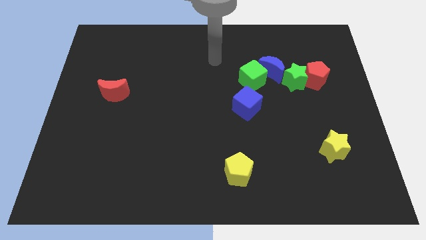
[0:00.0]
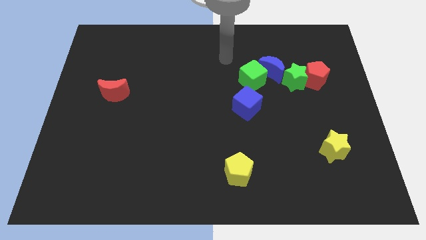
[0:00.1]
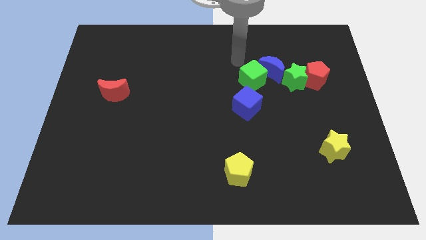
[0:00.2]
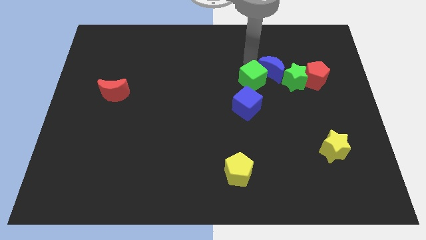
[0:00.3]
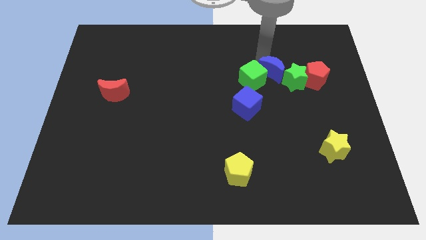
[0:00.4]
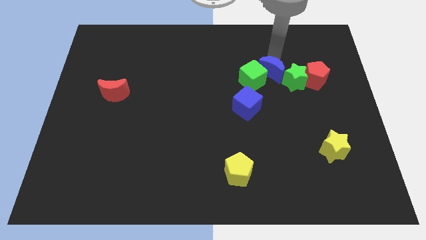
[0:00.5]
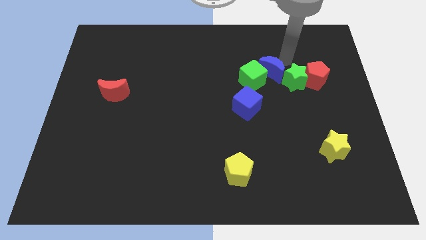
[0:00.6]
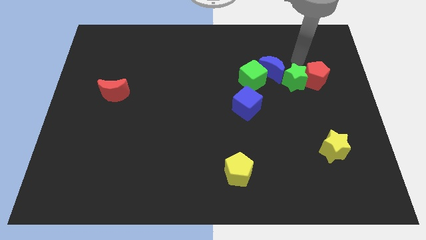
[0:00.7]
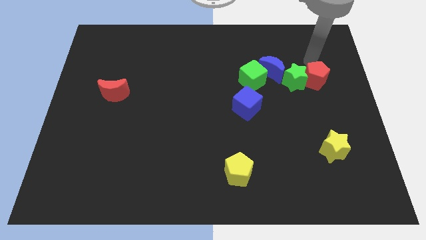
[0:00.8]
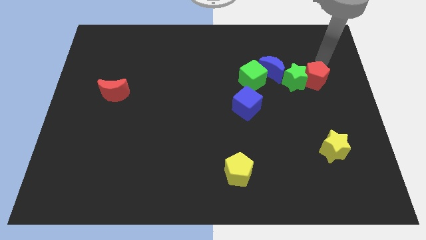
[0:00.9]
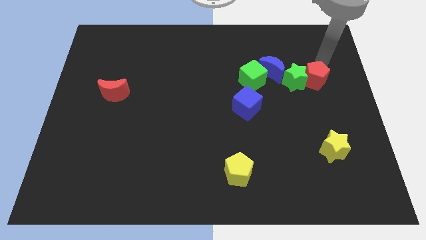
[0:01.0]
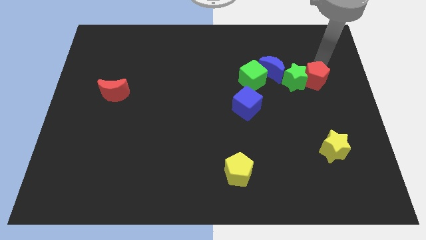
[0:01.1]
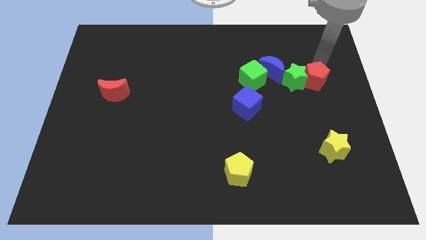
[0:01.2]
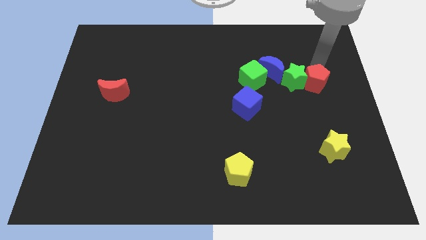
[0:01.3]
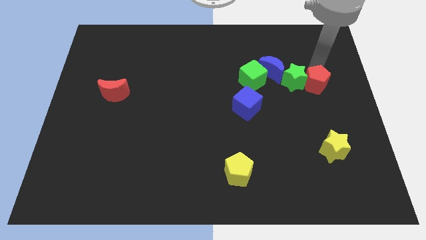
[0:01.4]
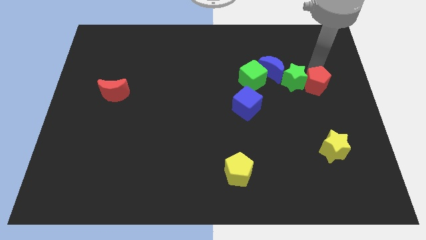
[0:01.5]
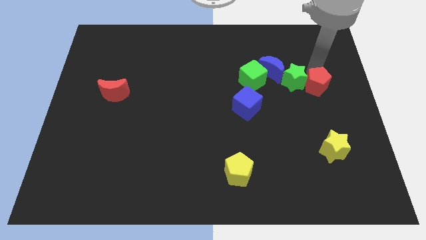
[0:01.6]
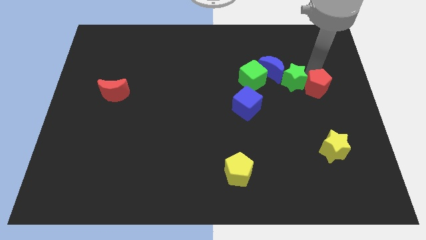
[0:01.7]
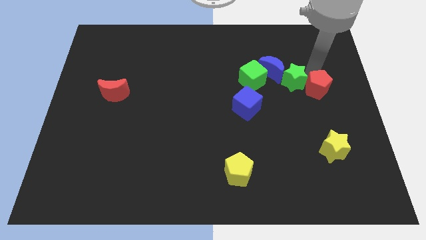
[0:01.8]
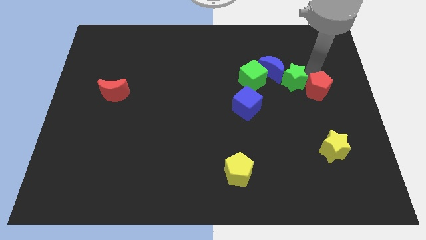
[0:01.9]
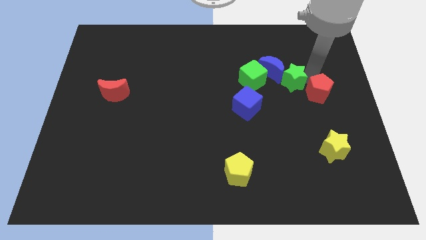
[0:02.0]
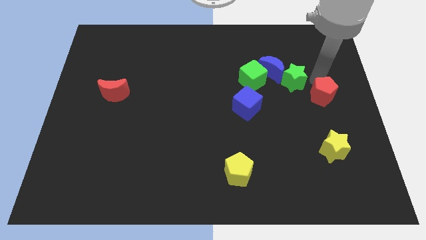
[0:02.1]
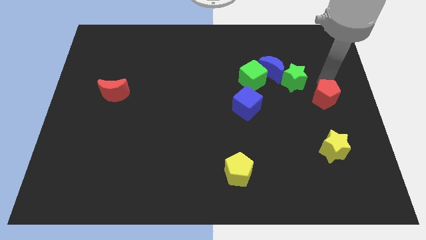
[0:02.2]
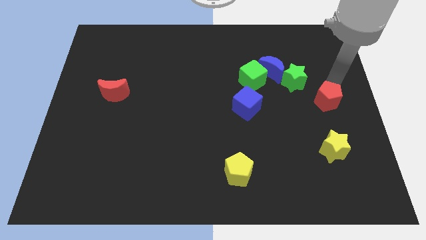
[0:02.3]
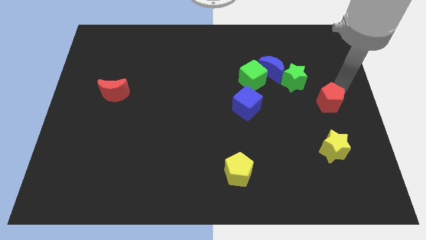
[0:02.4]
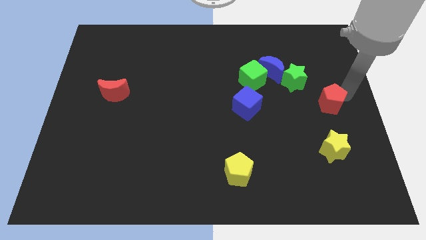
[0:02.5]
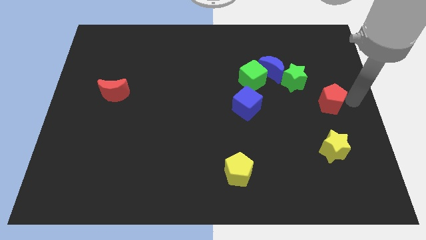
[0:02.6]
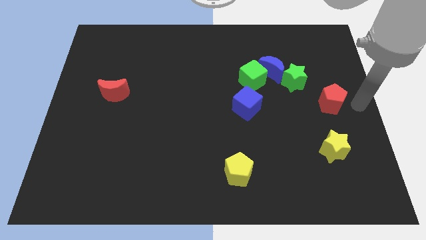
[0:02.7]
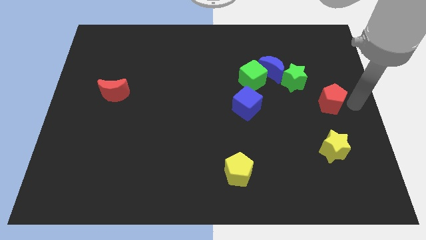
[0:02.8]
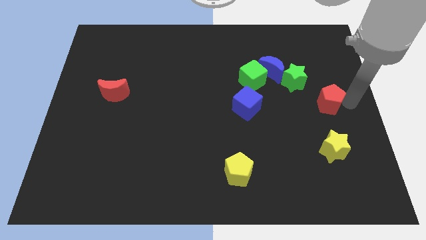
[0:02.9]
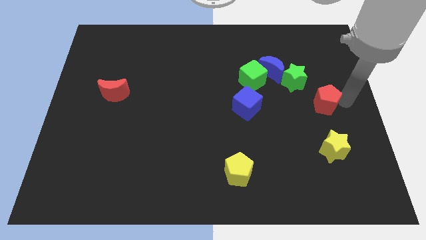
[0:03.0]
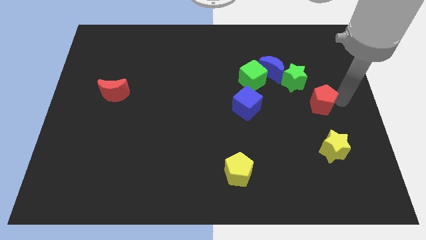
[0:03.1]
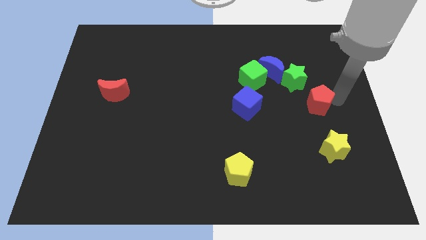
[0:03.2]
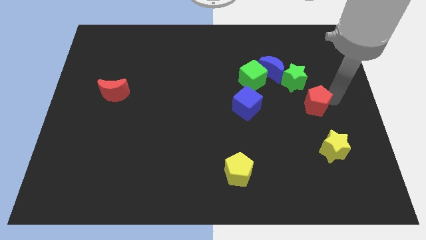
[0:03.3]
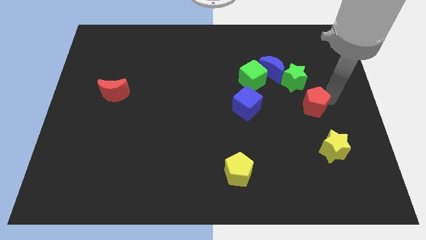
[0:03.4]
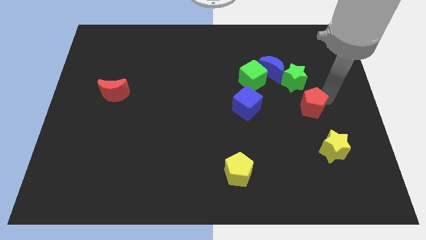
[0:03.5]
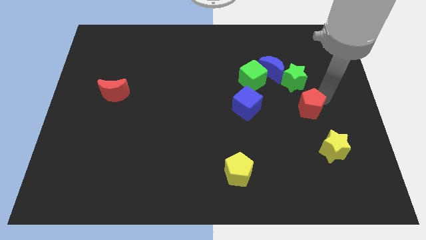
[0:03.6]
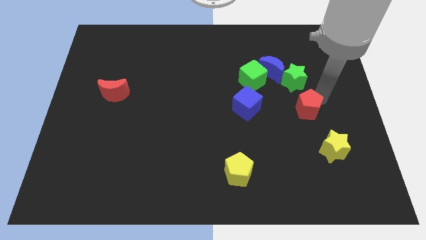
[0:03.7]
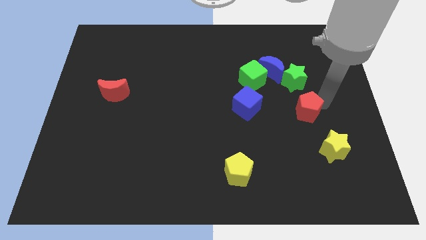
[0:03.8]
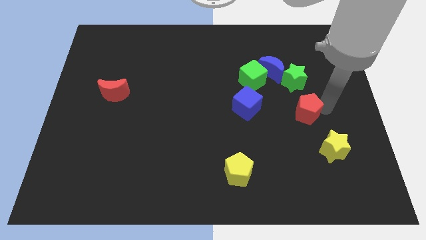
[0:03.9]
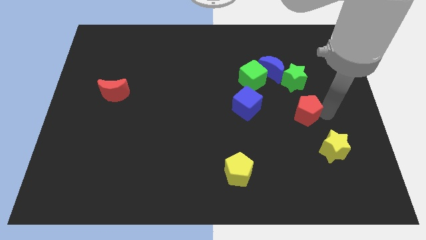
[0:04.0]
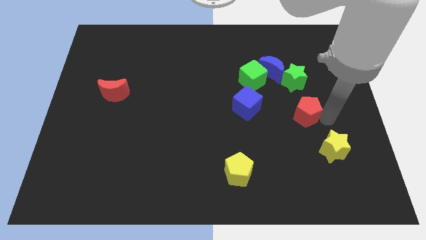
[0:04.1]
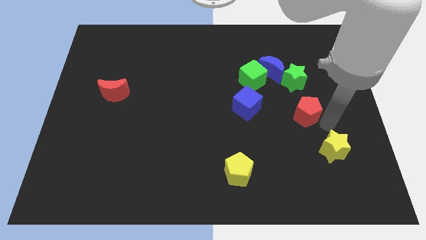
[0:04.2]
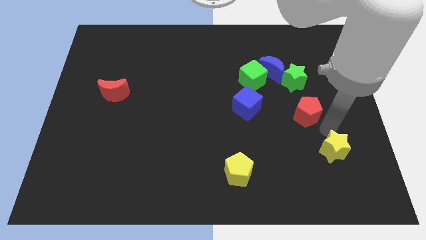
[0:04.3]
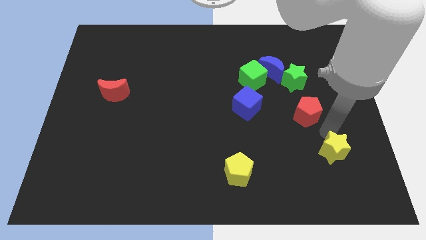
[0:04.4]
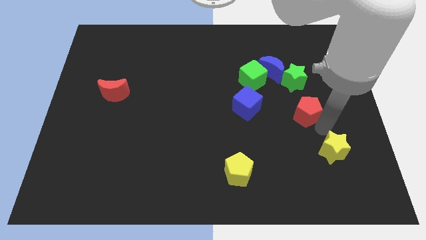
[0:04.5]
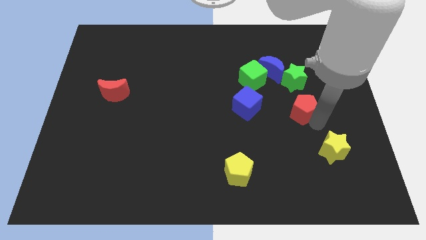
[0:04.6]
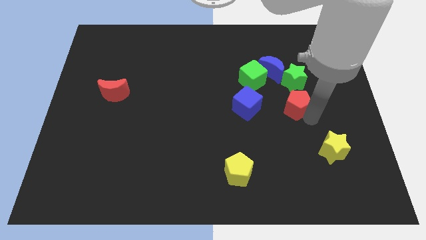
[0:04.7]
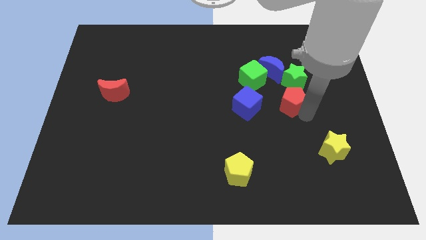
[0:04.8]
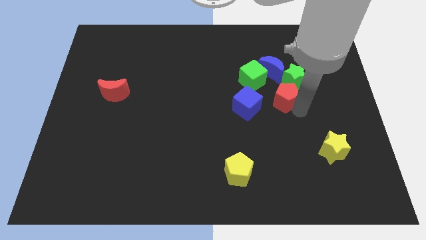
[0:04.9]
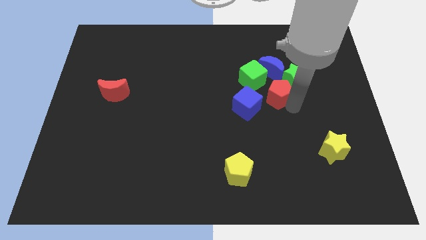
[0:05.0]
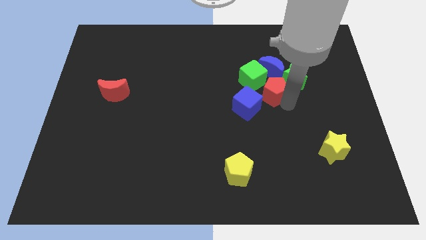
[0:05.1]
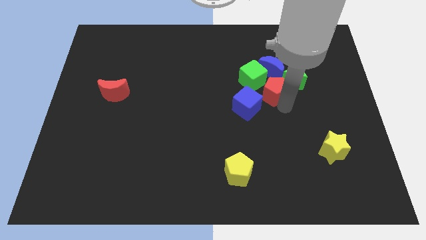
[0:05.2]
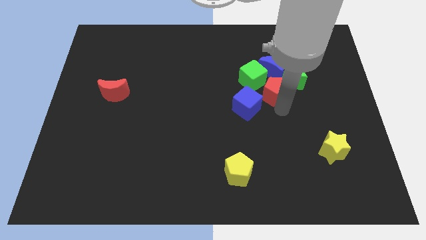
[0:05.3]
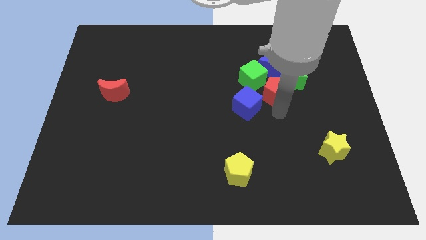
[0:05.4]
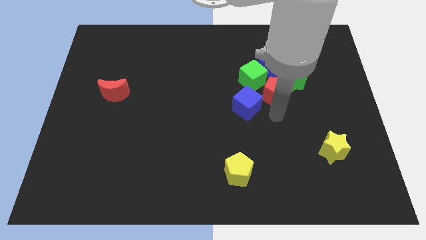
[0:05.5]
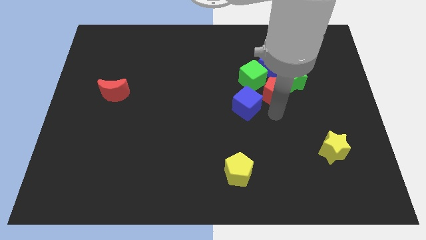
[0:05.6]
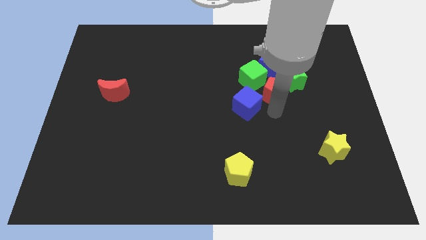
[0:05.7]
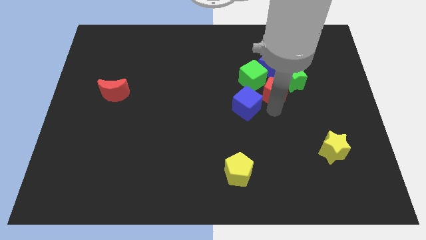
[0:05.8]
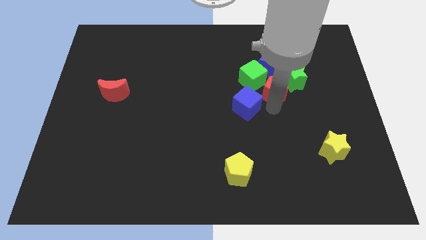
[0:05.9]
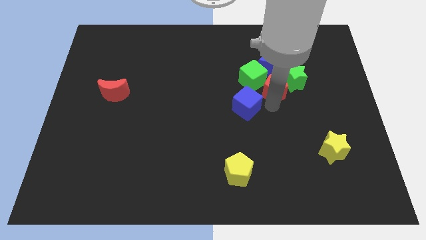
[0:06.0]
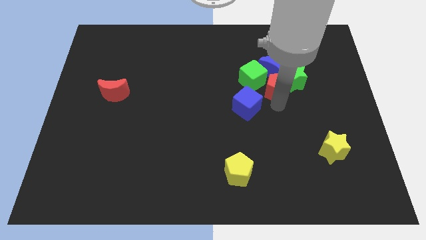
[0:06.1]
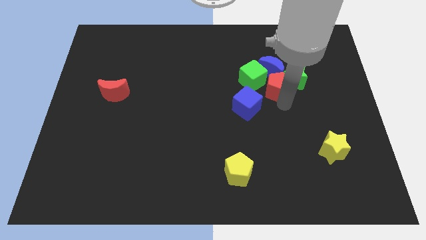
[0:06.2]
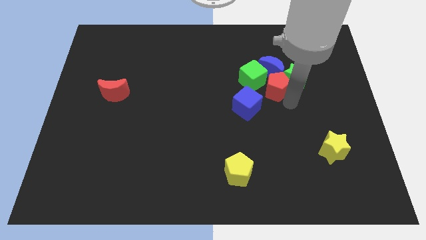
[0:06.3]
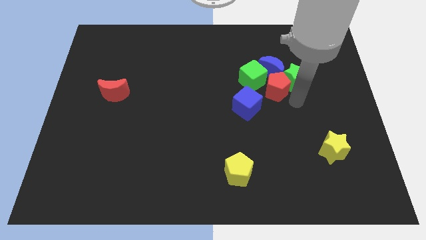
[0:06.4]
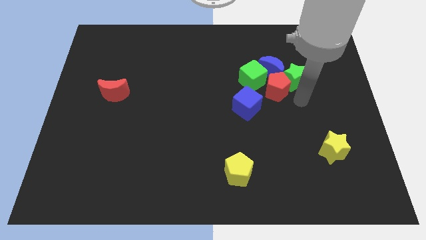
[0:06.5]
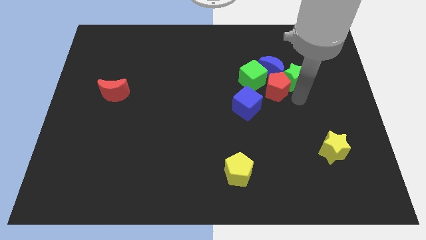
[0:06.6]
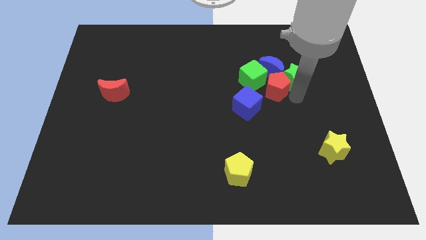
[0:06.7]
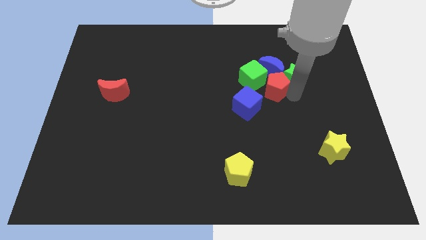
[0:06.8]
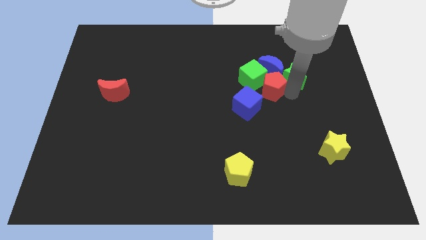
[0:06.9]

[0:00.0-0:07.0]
slide the red pentagon close to the green cube

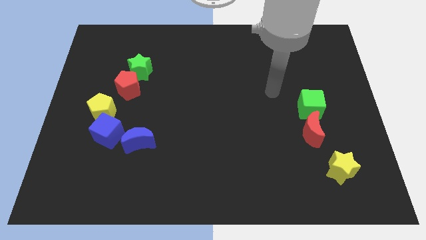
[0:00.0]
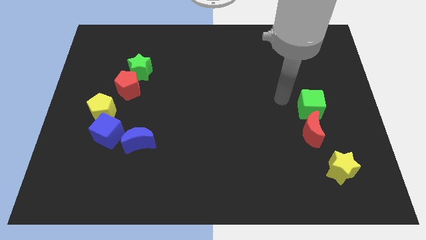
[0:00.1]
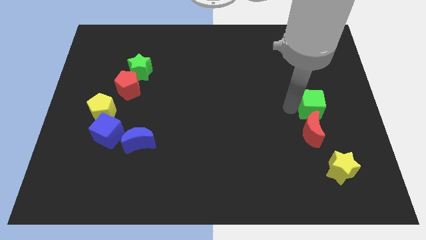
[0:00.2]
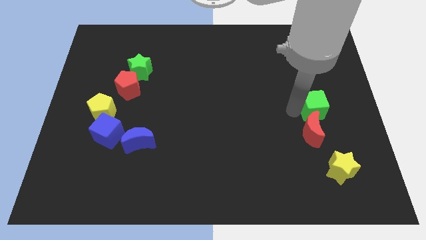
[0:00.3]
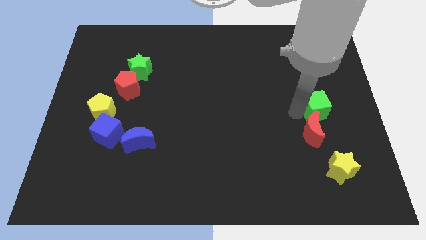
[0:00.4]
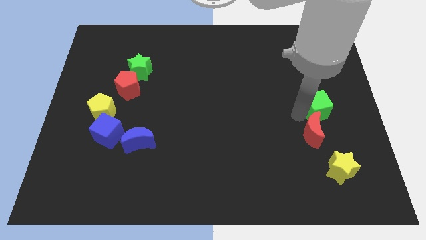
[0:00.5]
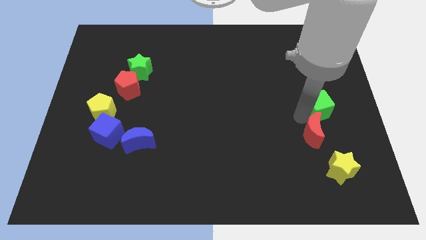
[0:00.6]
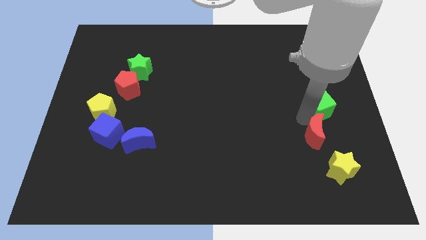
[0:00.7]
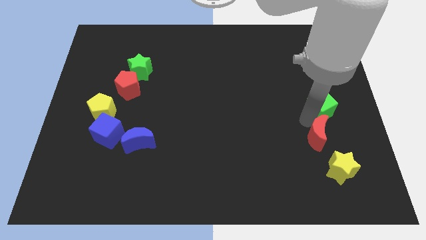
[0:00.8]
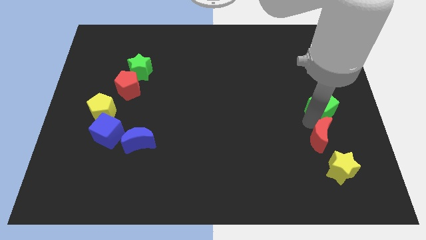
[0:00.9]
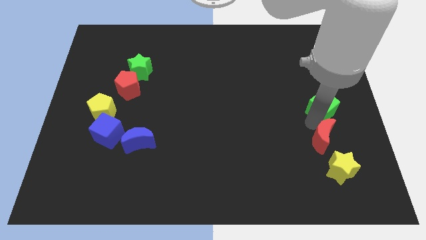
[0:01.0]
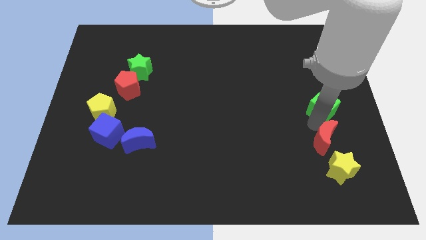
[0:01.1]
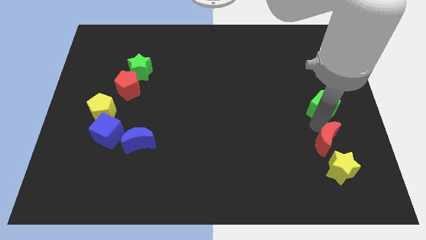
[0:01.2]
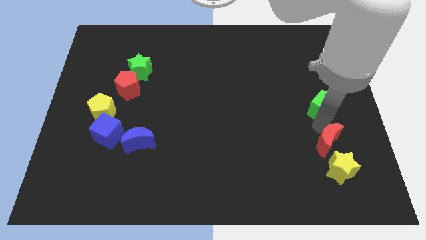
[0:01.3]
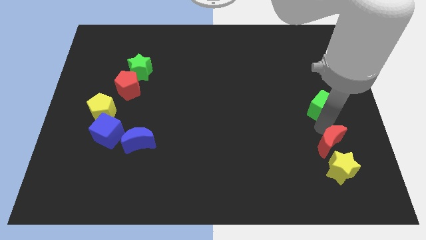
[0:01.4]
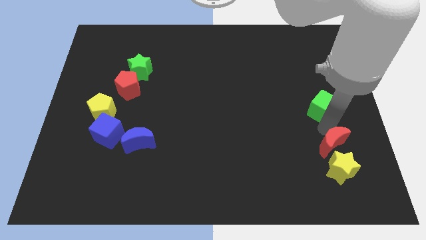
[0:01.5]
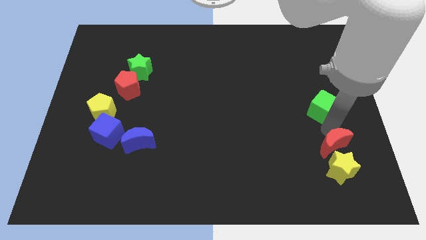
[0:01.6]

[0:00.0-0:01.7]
push the red moon close to the yellow star
